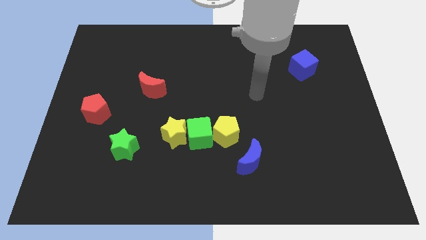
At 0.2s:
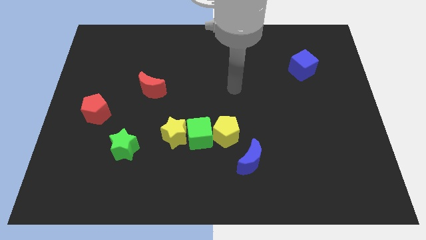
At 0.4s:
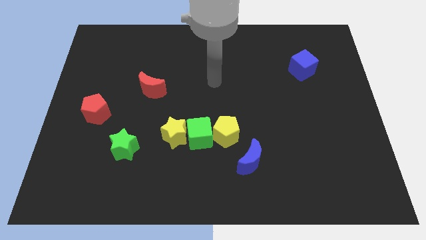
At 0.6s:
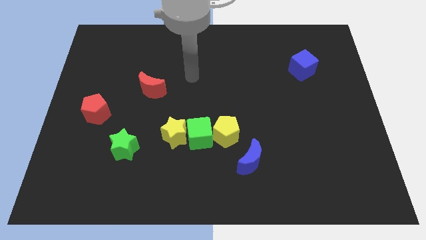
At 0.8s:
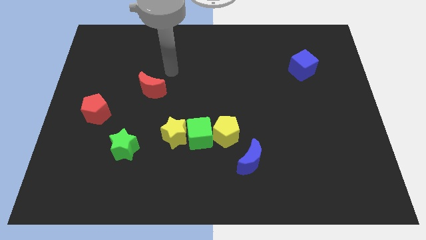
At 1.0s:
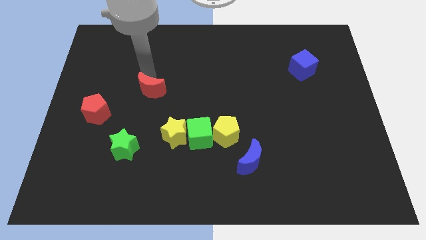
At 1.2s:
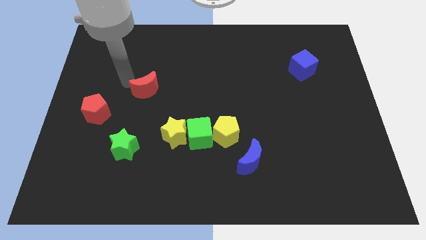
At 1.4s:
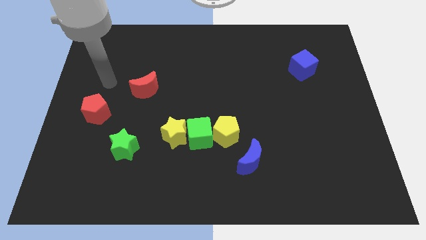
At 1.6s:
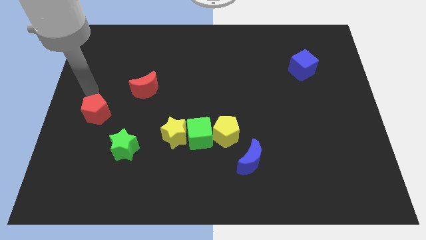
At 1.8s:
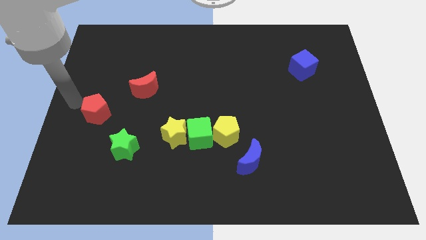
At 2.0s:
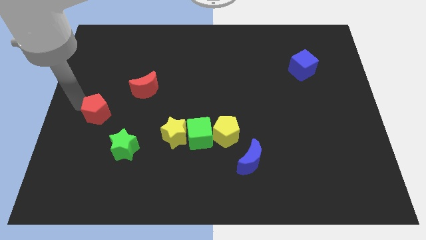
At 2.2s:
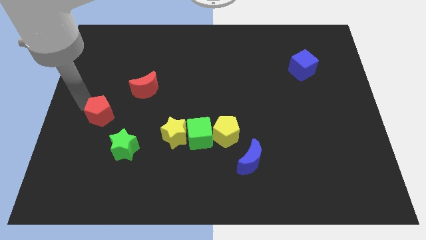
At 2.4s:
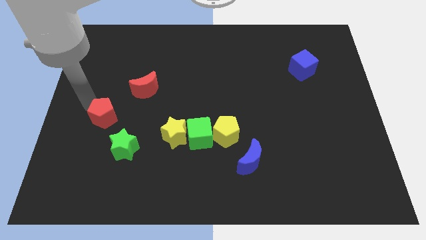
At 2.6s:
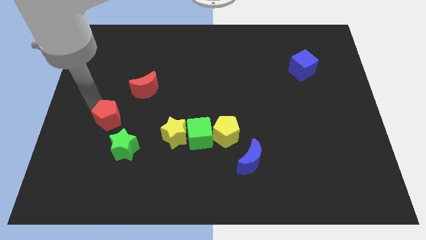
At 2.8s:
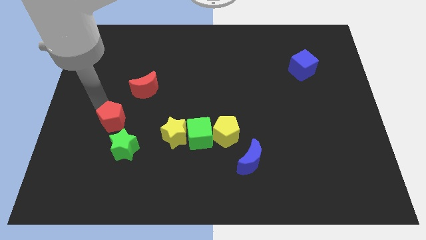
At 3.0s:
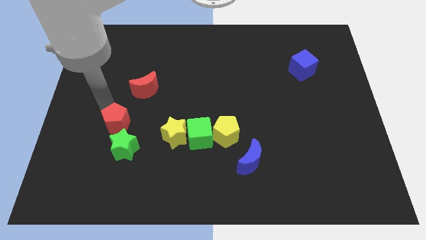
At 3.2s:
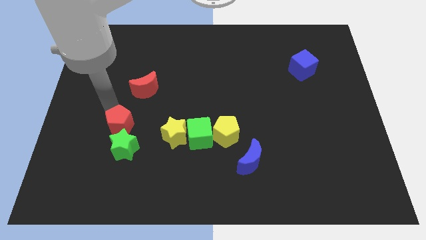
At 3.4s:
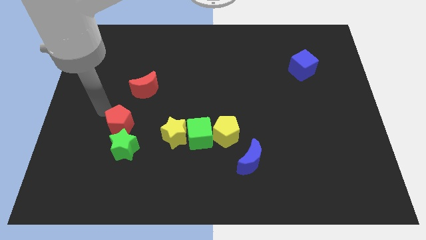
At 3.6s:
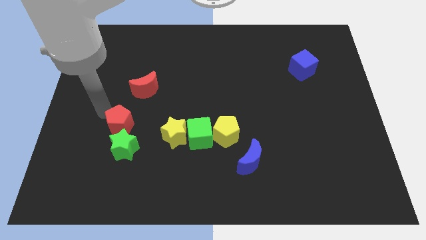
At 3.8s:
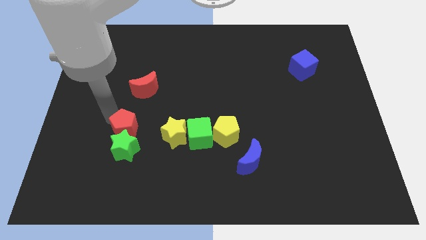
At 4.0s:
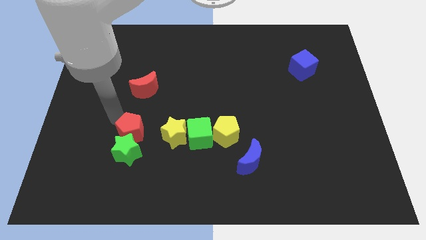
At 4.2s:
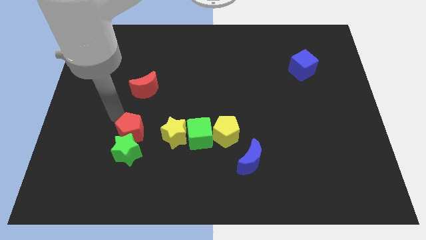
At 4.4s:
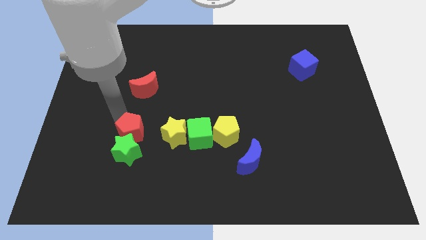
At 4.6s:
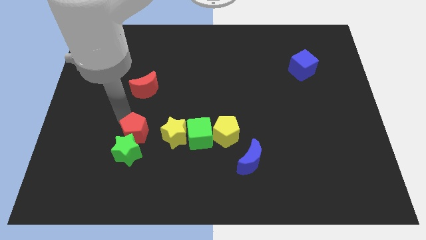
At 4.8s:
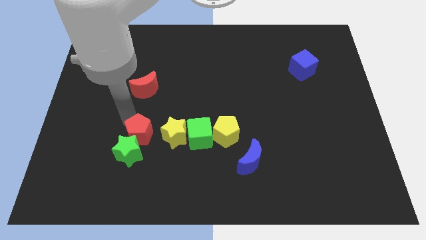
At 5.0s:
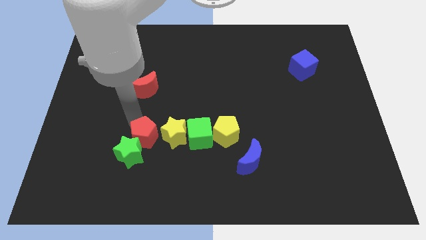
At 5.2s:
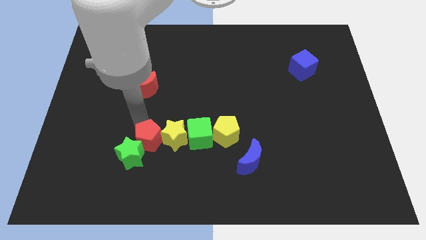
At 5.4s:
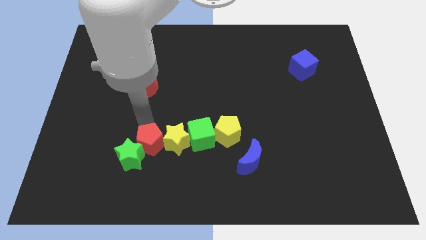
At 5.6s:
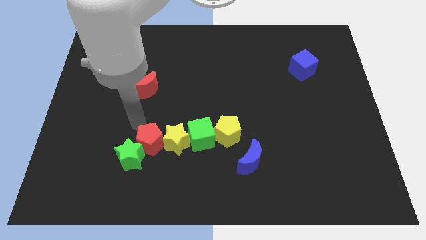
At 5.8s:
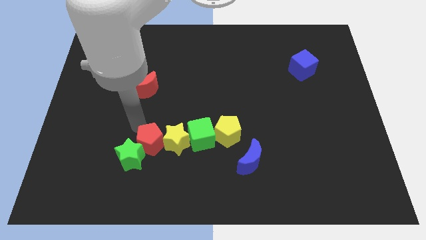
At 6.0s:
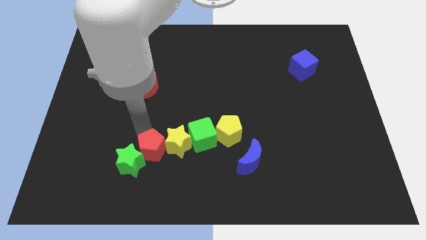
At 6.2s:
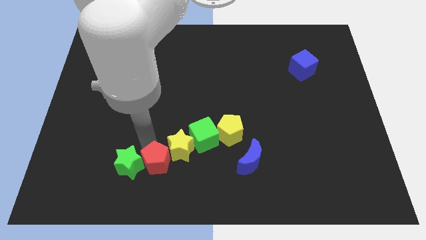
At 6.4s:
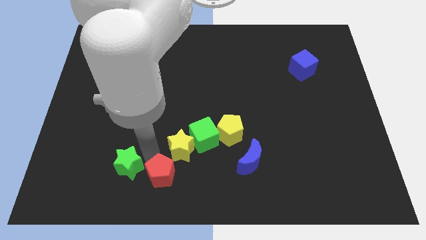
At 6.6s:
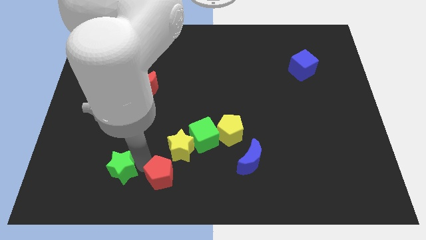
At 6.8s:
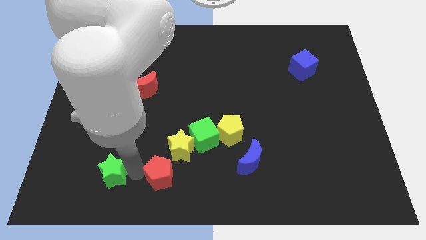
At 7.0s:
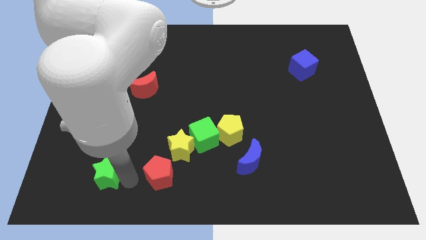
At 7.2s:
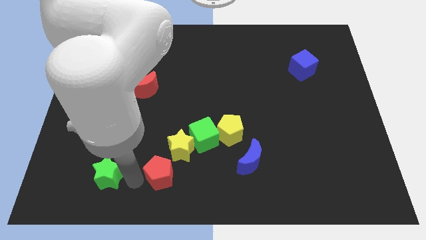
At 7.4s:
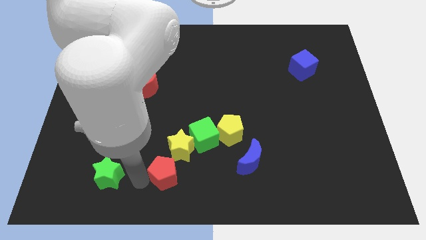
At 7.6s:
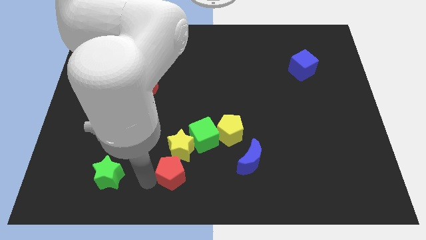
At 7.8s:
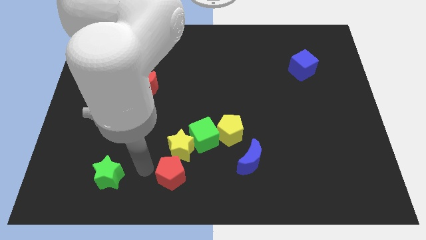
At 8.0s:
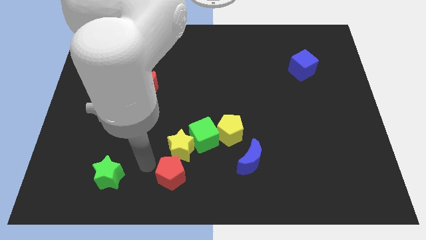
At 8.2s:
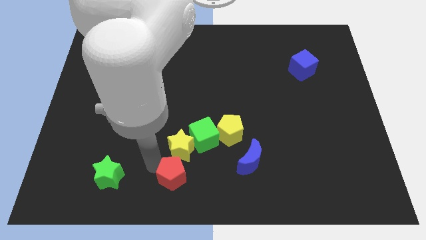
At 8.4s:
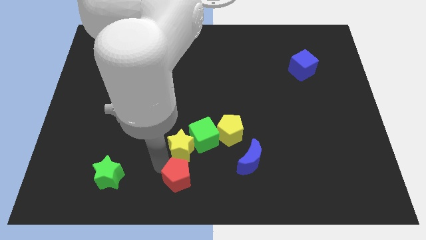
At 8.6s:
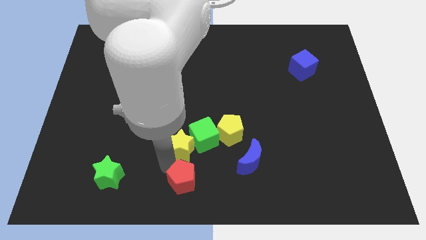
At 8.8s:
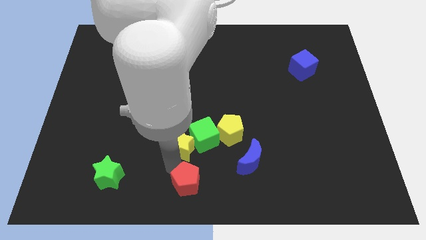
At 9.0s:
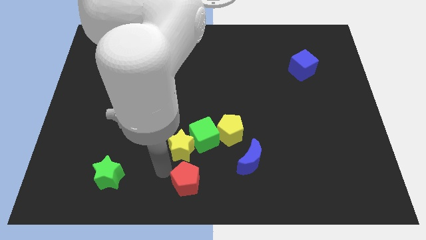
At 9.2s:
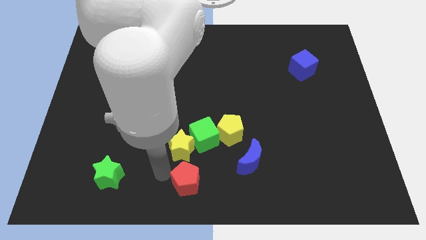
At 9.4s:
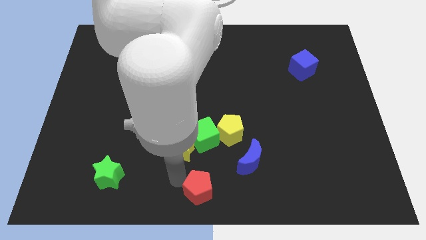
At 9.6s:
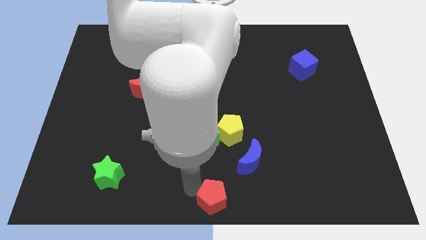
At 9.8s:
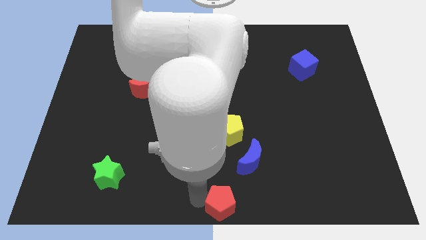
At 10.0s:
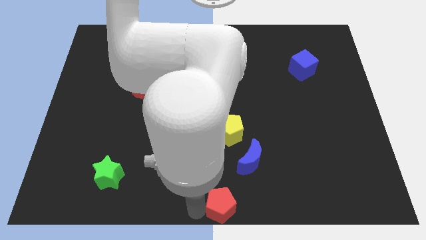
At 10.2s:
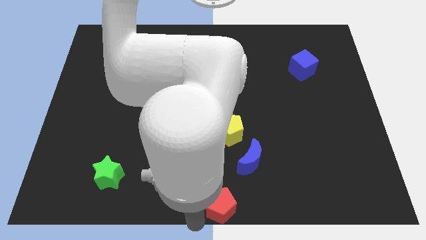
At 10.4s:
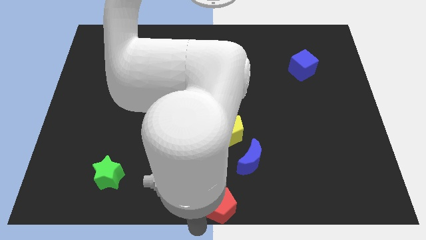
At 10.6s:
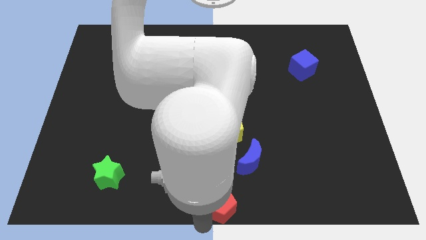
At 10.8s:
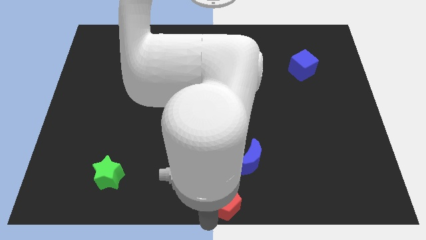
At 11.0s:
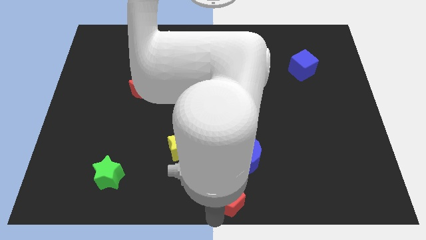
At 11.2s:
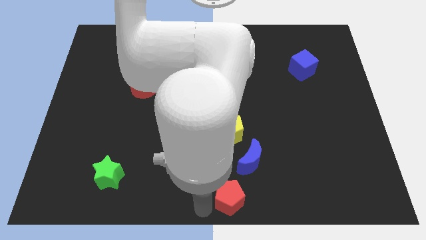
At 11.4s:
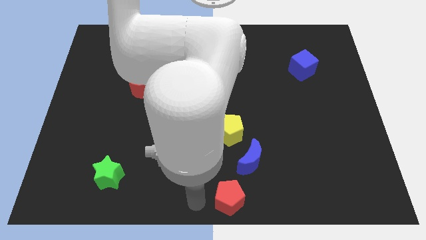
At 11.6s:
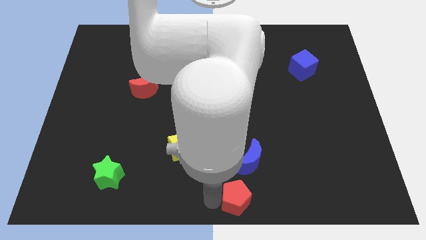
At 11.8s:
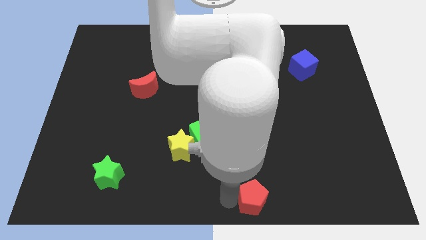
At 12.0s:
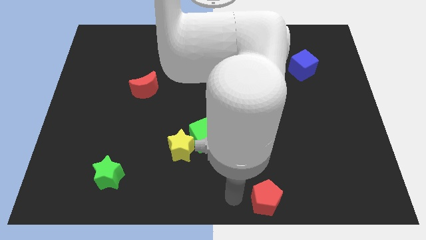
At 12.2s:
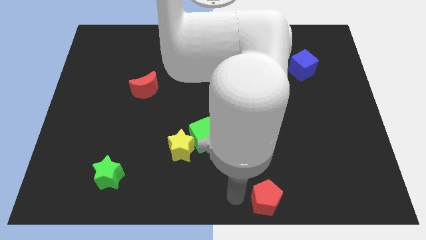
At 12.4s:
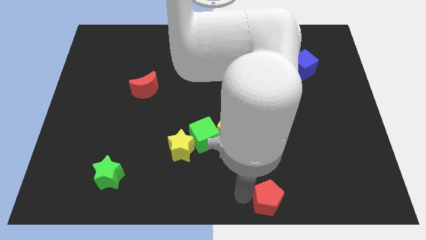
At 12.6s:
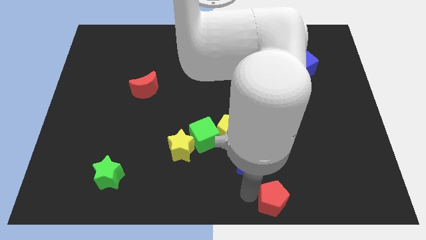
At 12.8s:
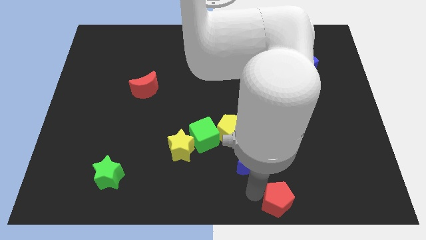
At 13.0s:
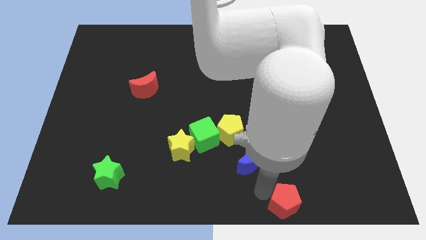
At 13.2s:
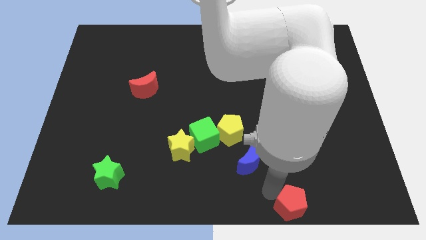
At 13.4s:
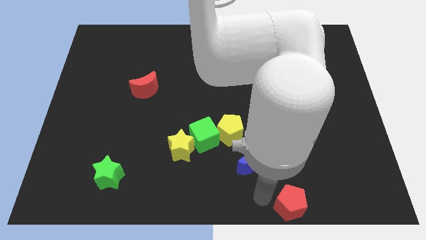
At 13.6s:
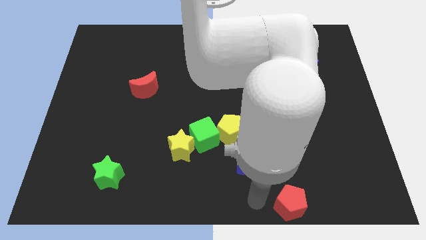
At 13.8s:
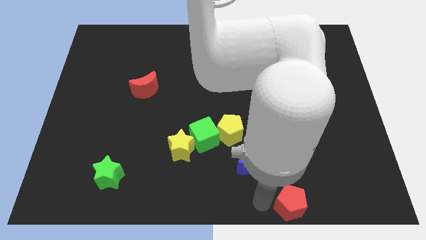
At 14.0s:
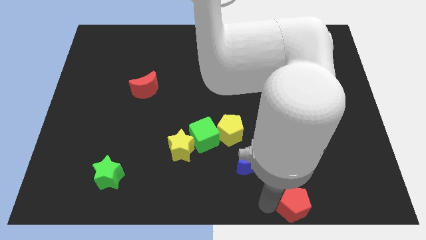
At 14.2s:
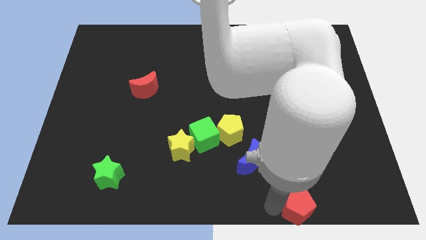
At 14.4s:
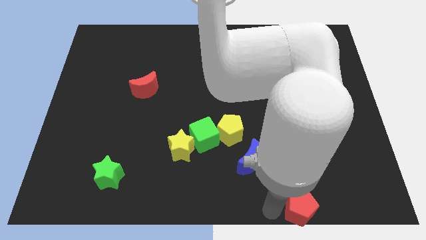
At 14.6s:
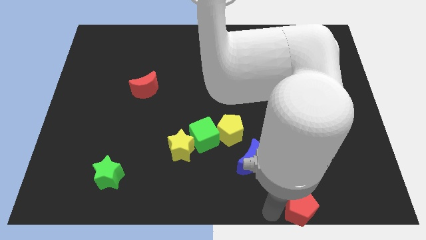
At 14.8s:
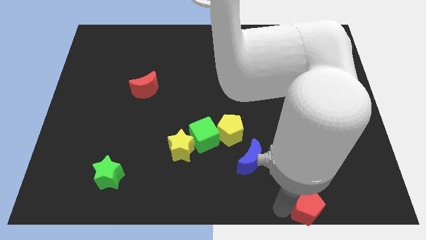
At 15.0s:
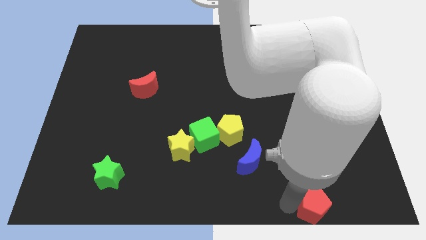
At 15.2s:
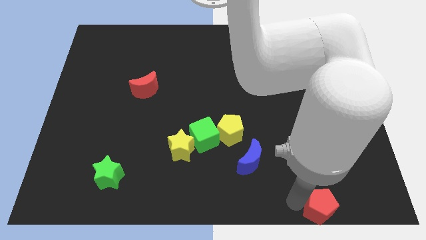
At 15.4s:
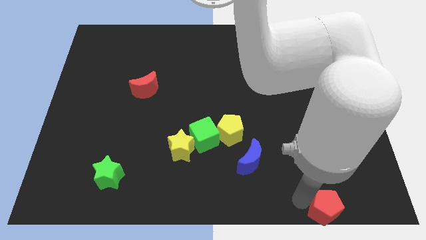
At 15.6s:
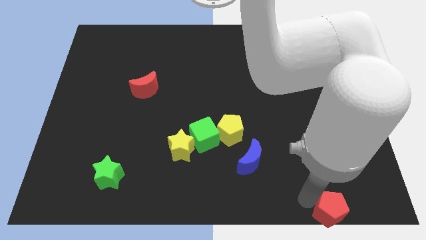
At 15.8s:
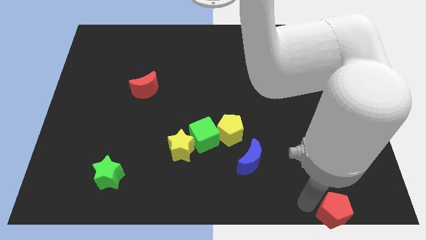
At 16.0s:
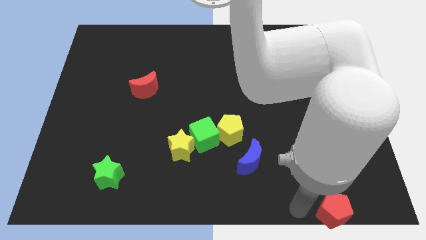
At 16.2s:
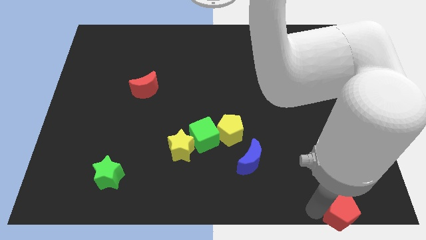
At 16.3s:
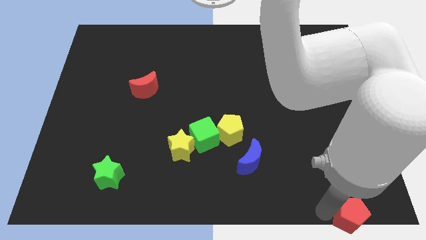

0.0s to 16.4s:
slide the red pentagon to the bottom right
